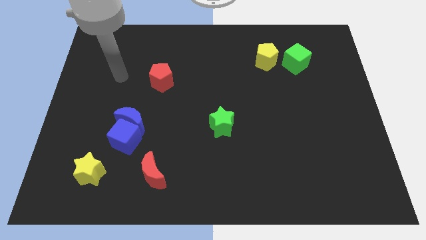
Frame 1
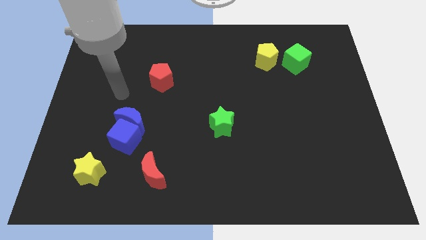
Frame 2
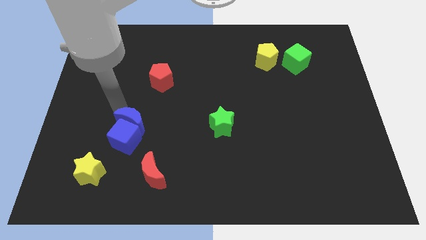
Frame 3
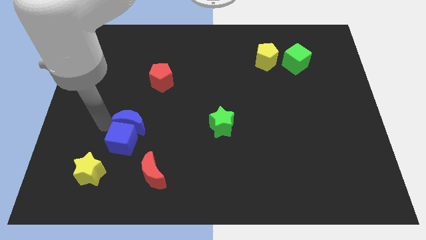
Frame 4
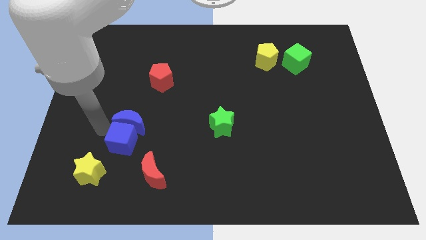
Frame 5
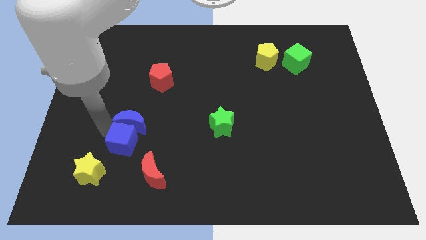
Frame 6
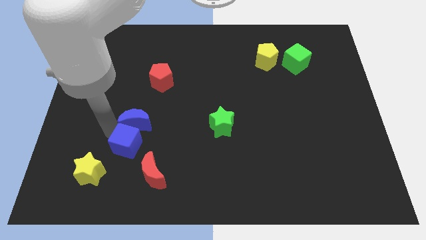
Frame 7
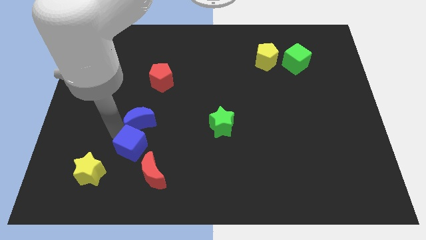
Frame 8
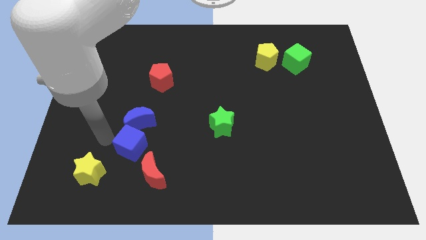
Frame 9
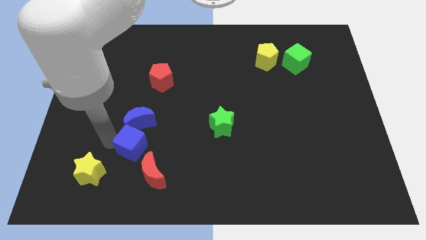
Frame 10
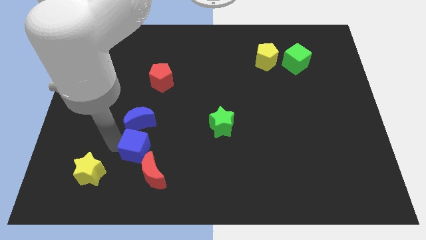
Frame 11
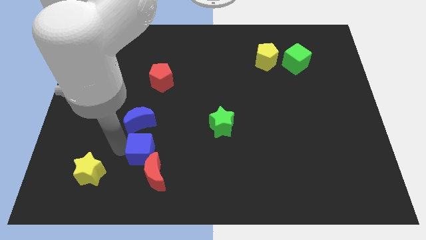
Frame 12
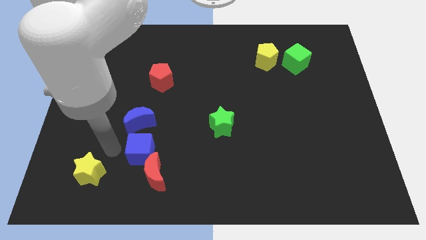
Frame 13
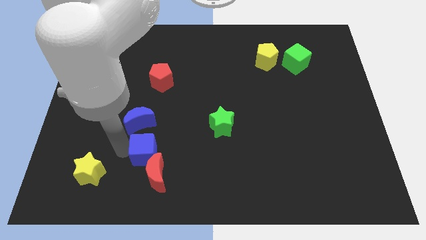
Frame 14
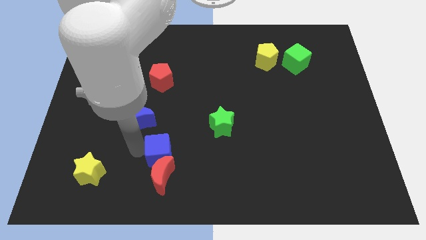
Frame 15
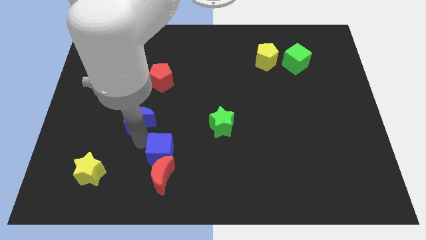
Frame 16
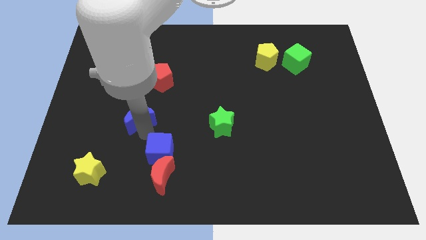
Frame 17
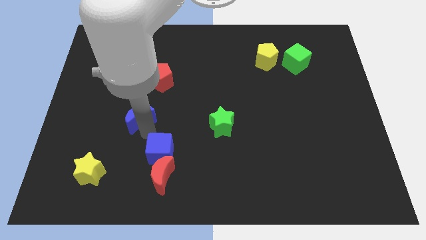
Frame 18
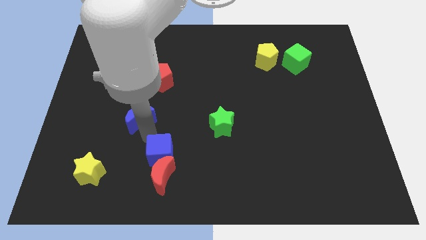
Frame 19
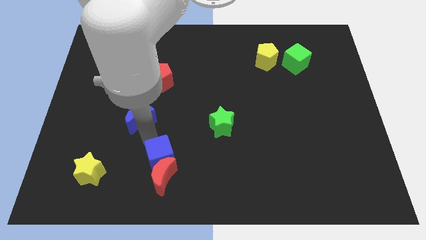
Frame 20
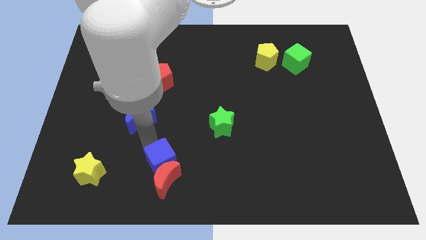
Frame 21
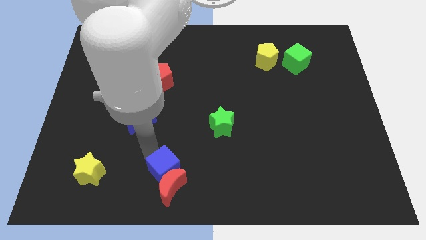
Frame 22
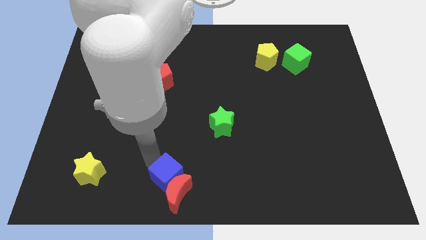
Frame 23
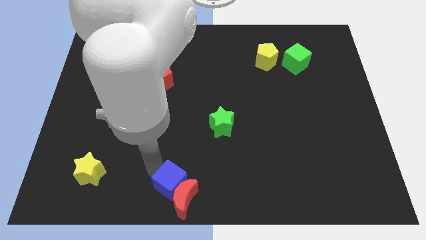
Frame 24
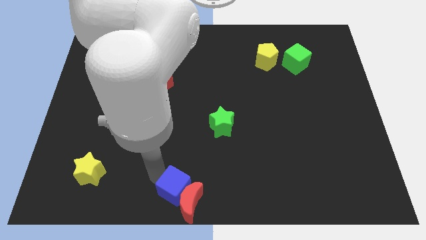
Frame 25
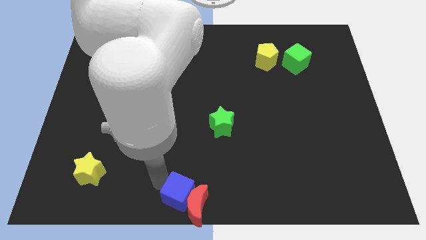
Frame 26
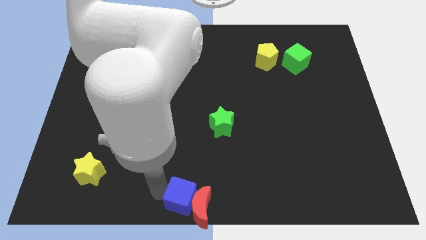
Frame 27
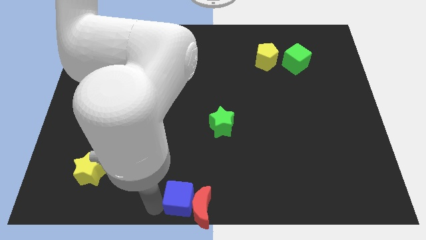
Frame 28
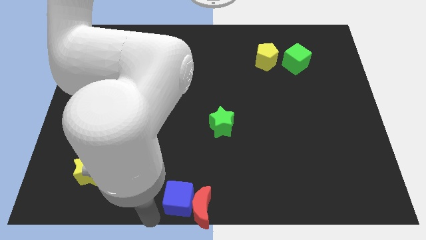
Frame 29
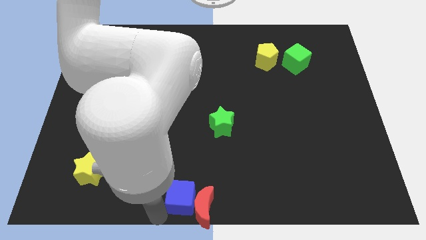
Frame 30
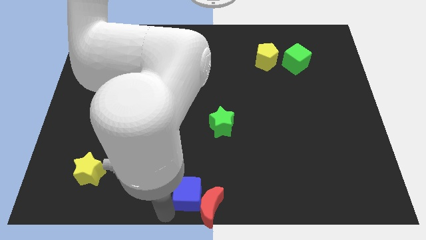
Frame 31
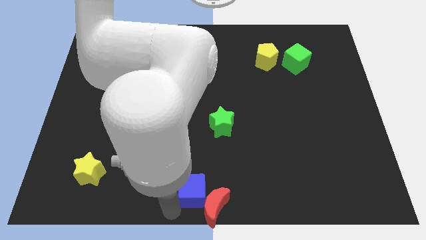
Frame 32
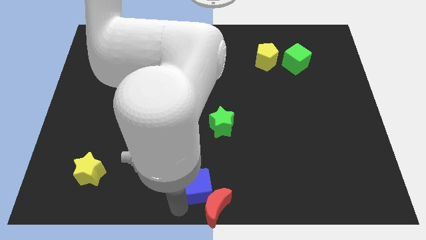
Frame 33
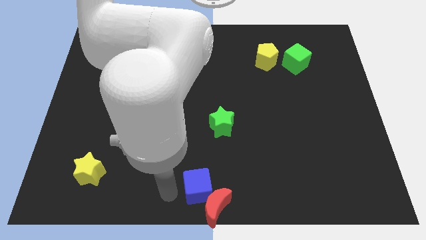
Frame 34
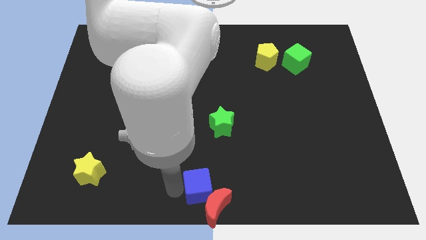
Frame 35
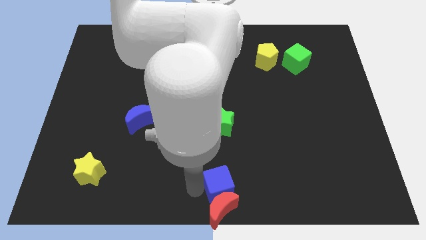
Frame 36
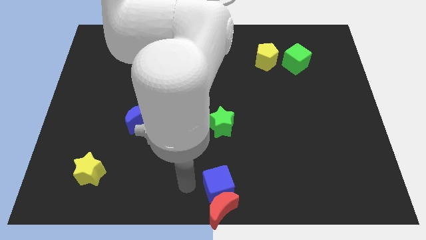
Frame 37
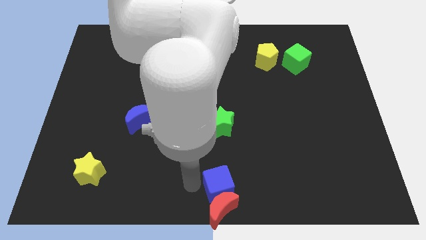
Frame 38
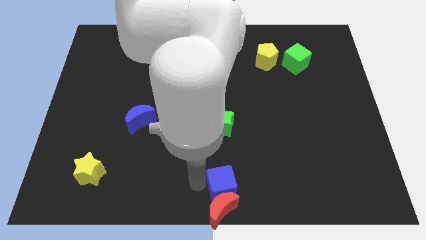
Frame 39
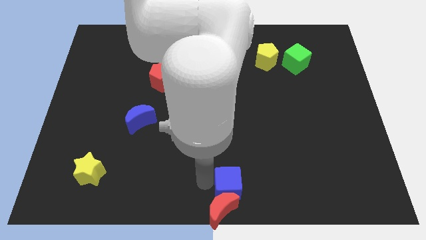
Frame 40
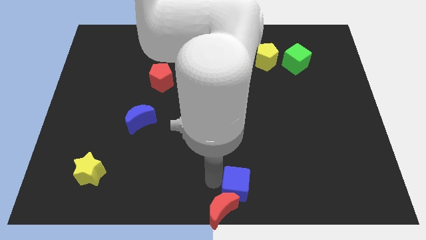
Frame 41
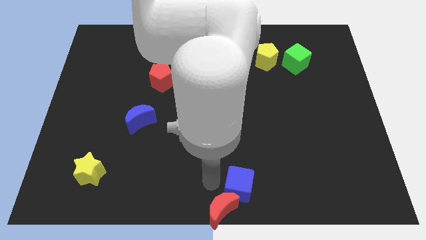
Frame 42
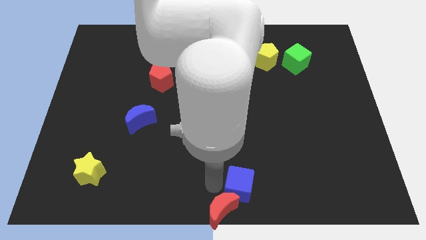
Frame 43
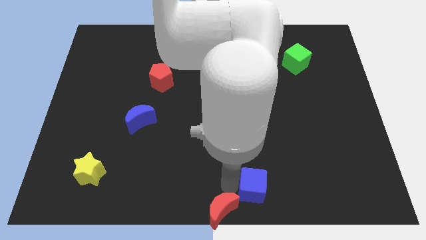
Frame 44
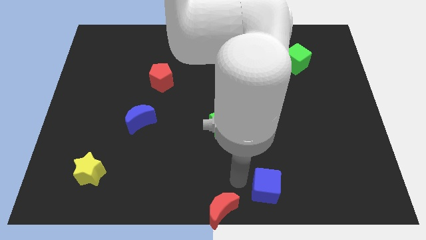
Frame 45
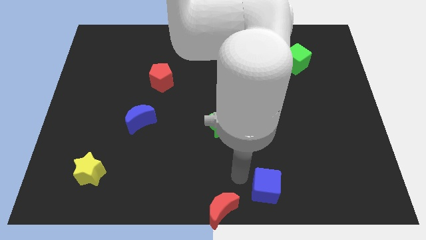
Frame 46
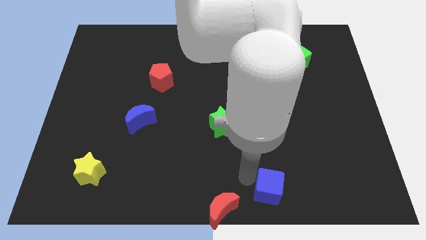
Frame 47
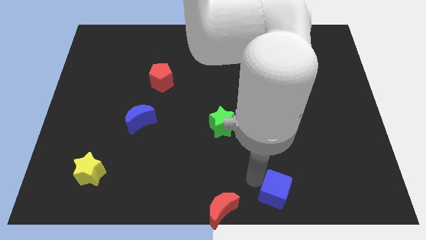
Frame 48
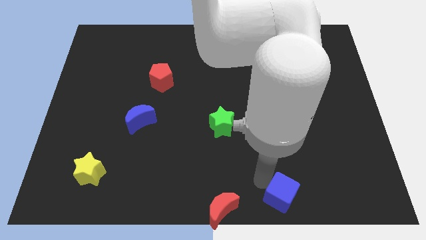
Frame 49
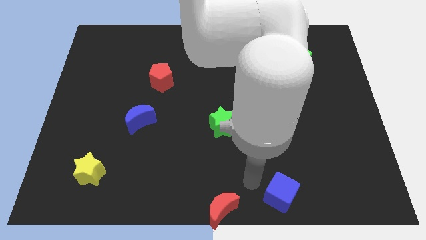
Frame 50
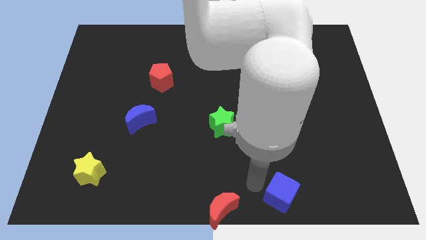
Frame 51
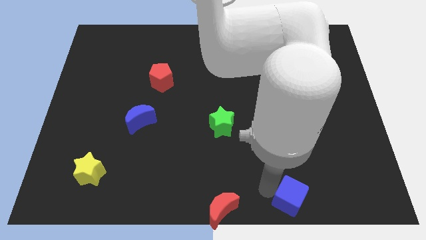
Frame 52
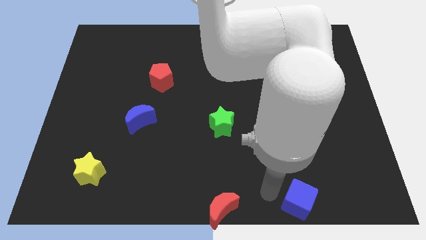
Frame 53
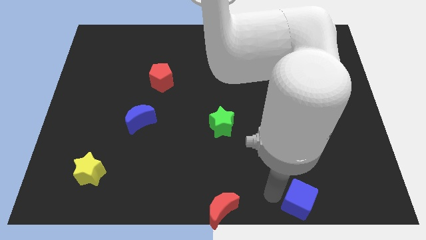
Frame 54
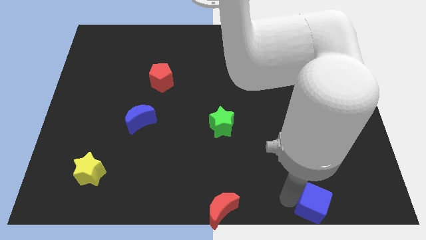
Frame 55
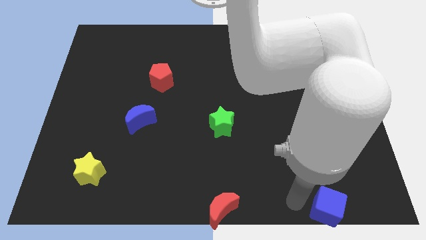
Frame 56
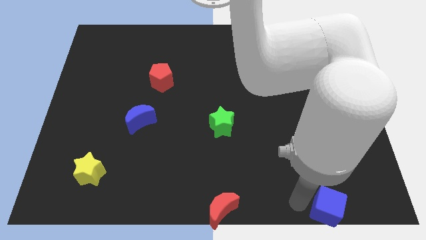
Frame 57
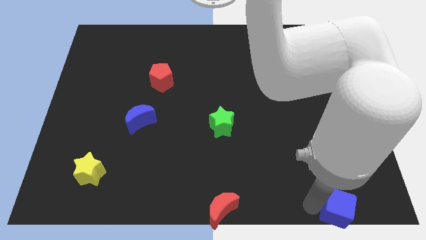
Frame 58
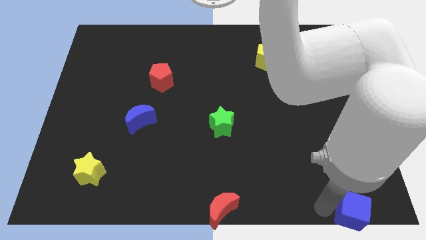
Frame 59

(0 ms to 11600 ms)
push the blue cube to the bottom right of the board
